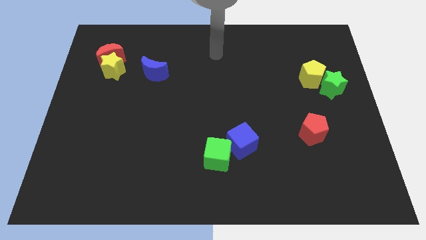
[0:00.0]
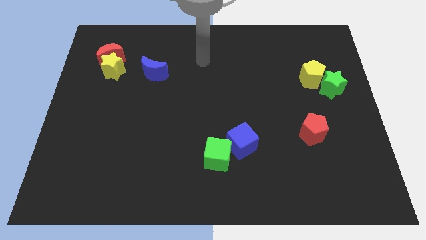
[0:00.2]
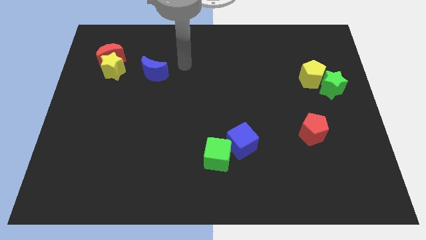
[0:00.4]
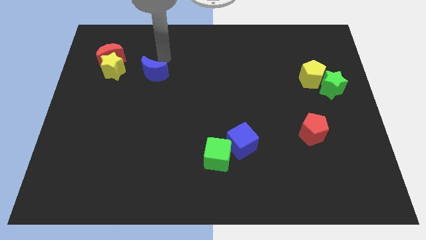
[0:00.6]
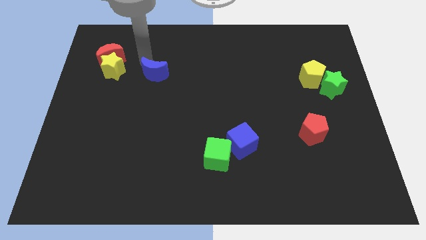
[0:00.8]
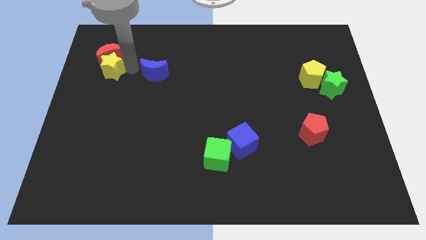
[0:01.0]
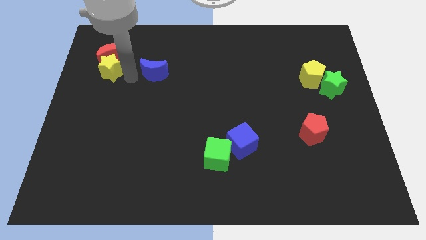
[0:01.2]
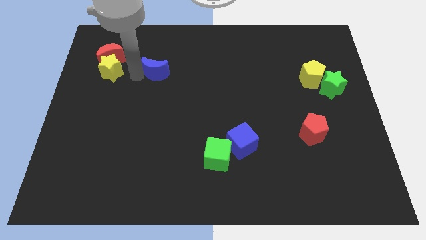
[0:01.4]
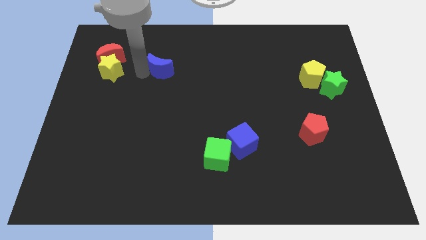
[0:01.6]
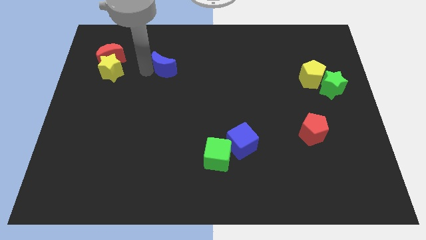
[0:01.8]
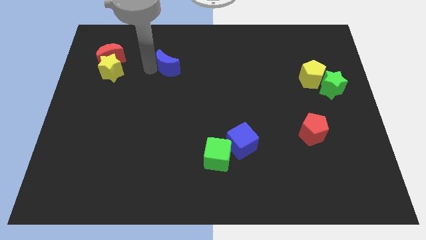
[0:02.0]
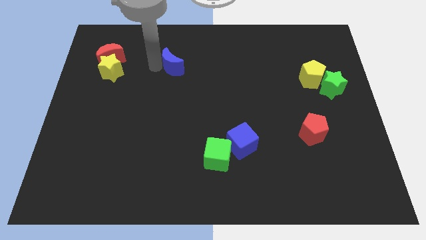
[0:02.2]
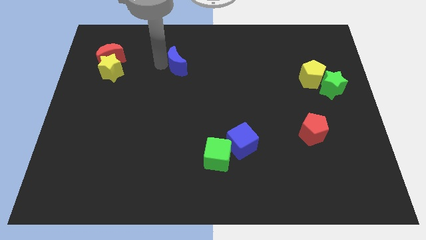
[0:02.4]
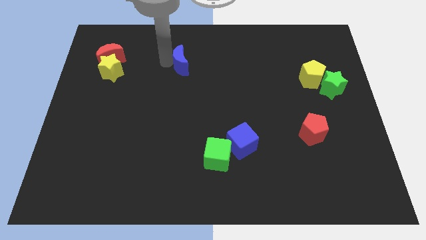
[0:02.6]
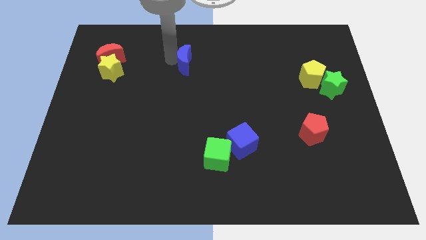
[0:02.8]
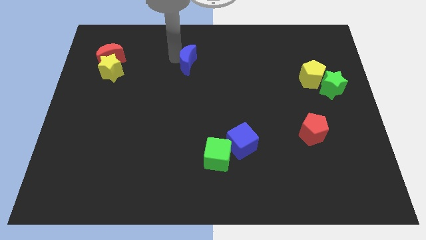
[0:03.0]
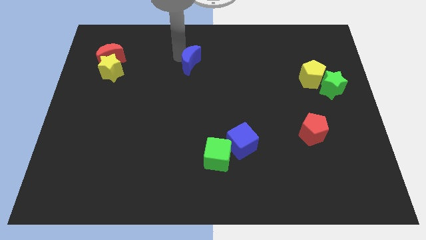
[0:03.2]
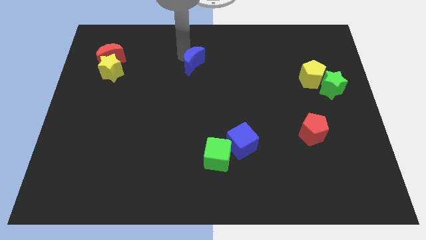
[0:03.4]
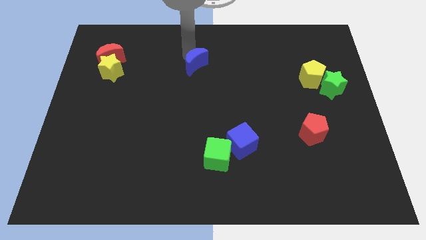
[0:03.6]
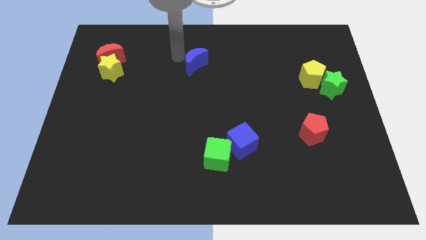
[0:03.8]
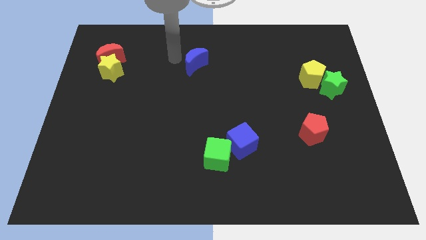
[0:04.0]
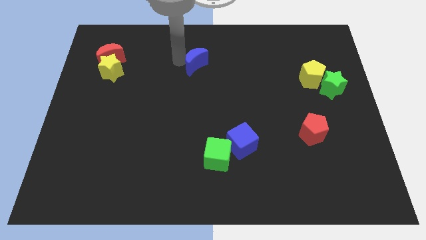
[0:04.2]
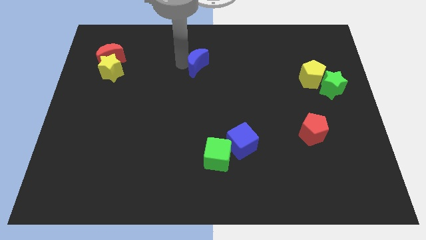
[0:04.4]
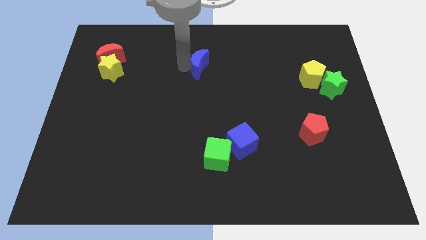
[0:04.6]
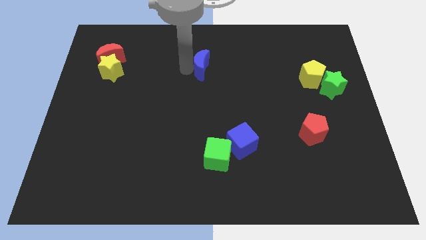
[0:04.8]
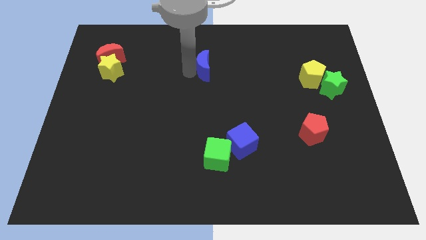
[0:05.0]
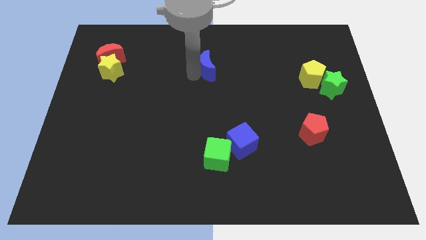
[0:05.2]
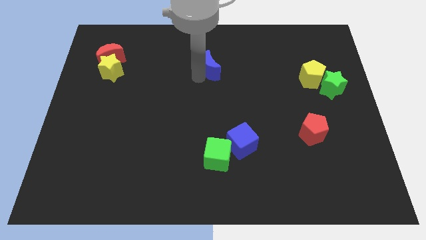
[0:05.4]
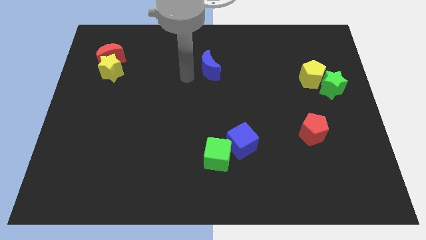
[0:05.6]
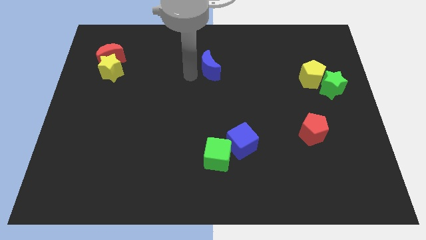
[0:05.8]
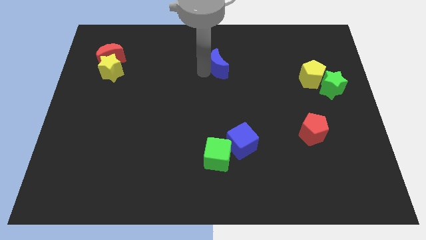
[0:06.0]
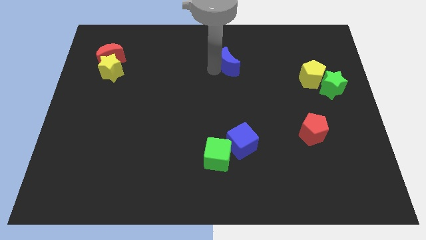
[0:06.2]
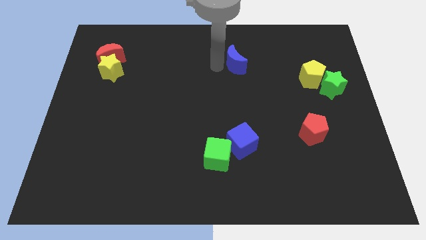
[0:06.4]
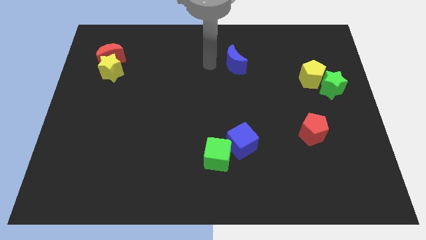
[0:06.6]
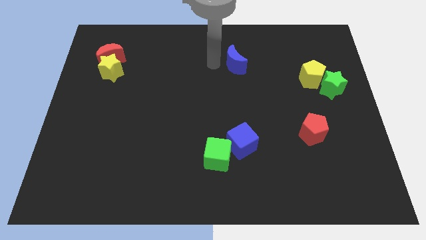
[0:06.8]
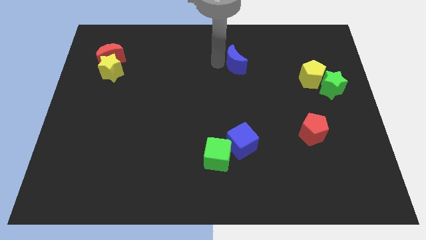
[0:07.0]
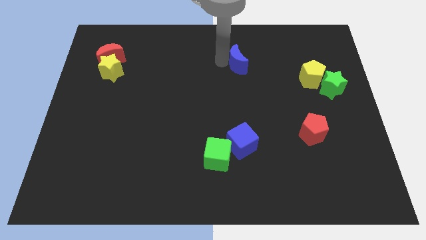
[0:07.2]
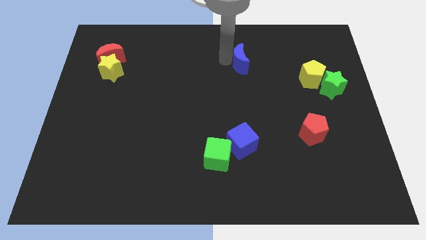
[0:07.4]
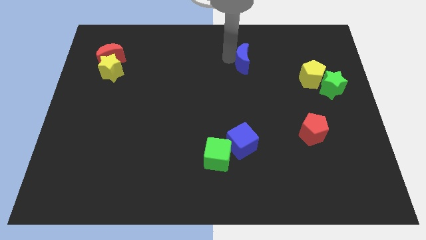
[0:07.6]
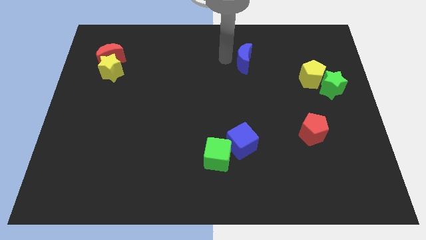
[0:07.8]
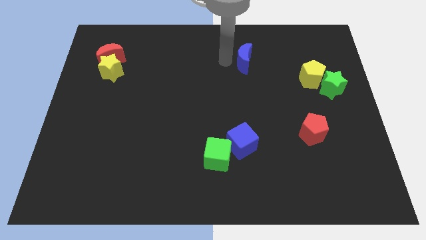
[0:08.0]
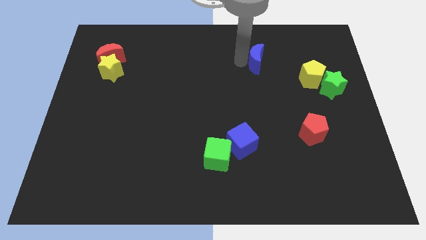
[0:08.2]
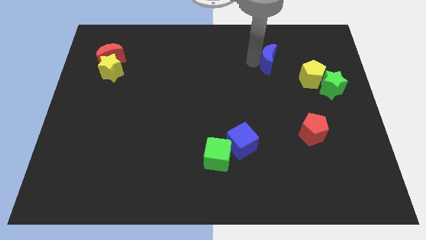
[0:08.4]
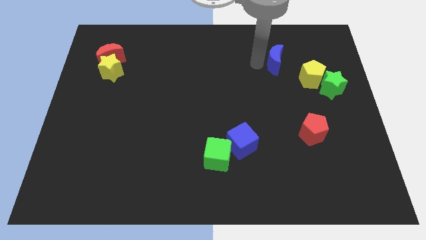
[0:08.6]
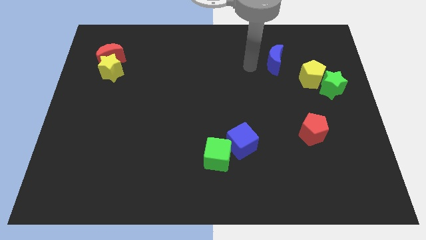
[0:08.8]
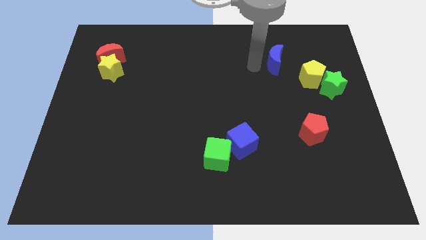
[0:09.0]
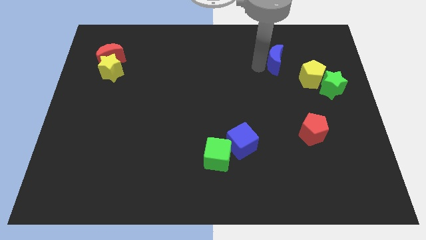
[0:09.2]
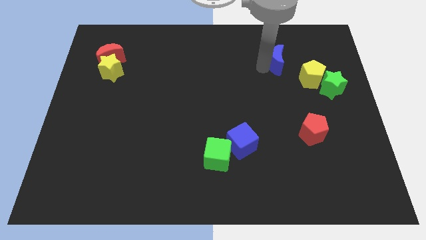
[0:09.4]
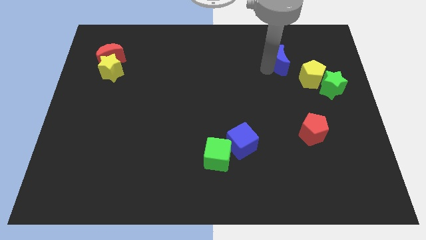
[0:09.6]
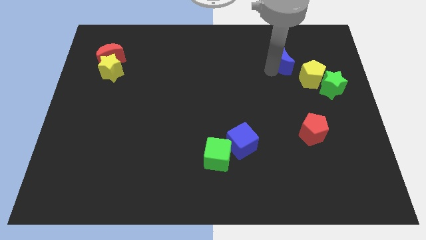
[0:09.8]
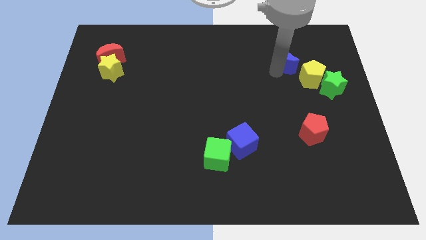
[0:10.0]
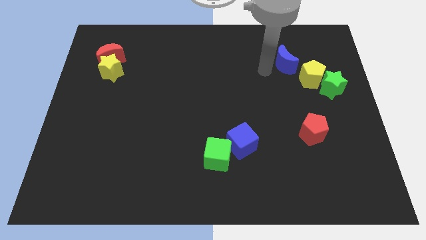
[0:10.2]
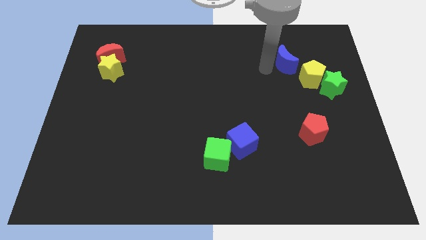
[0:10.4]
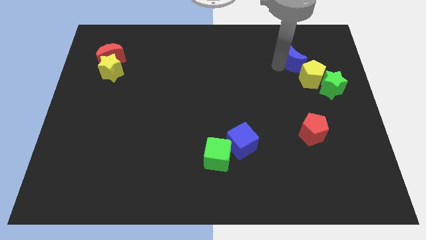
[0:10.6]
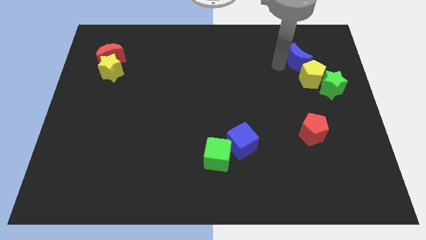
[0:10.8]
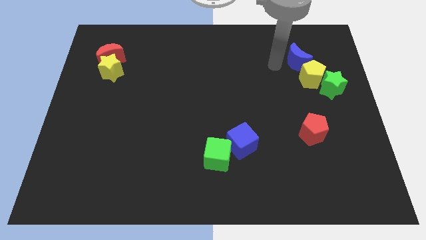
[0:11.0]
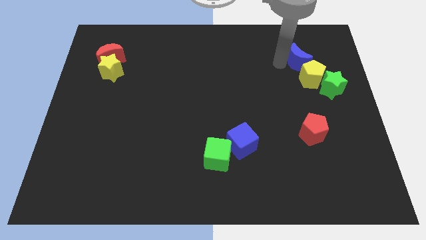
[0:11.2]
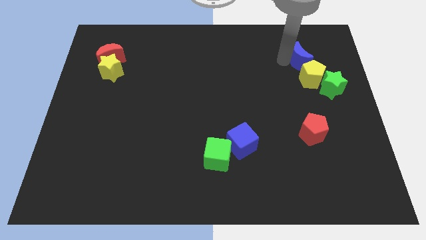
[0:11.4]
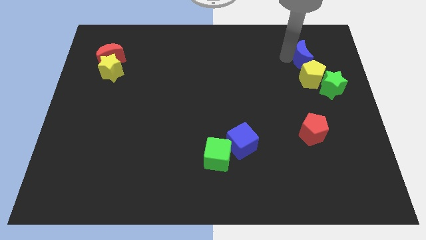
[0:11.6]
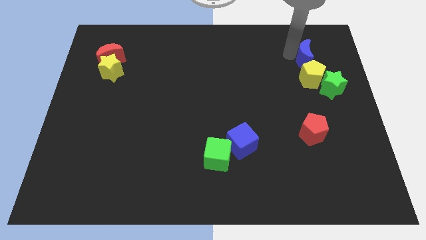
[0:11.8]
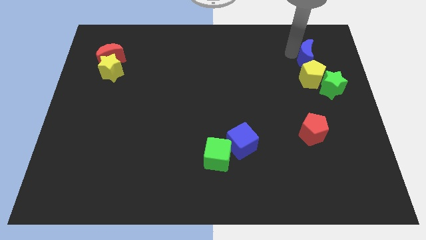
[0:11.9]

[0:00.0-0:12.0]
slide the blue moon above the green star
